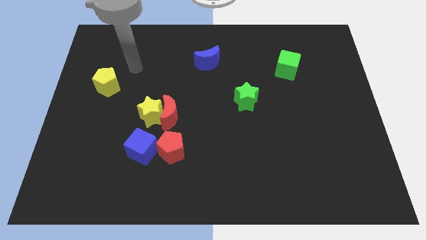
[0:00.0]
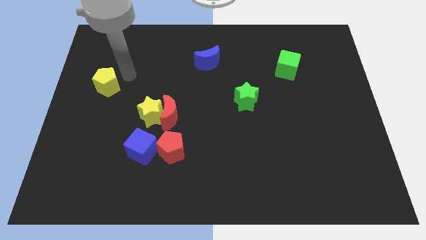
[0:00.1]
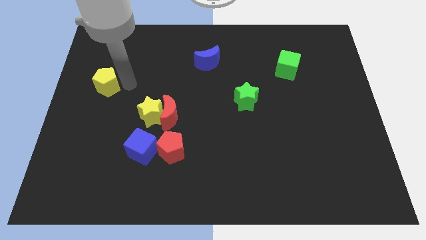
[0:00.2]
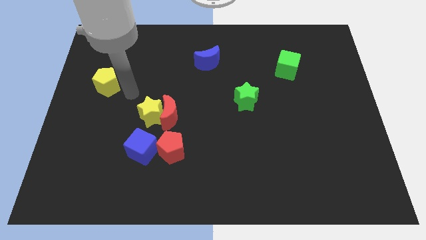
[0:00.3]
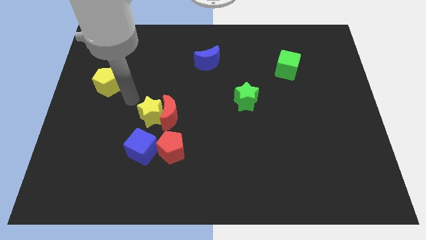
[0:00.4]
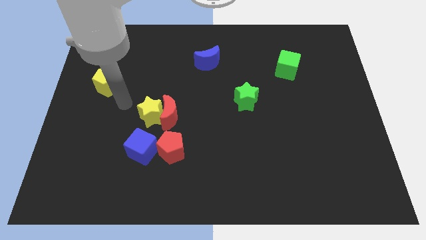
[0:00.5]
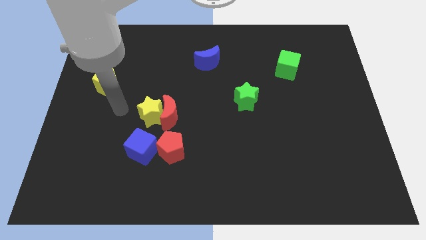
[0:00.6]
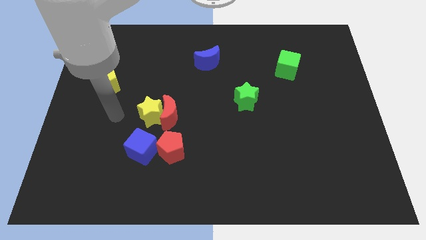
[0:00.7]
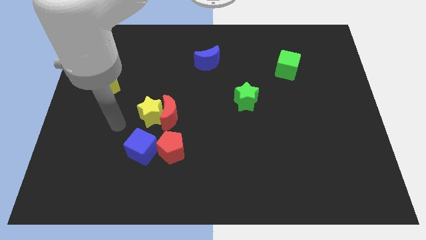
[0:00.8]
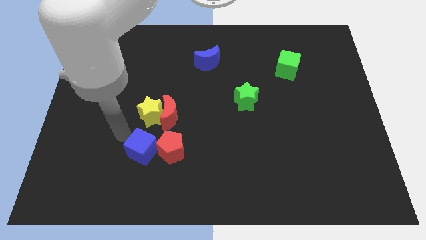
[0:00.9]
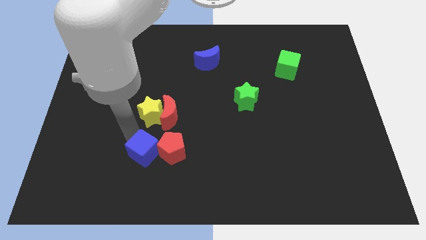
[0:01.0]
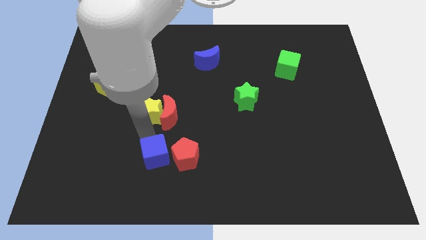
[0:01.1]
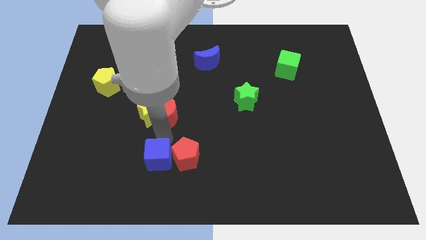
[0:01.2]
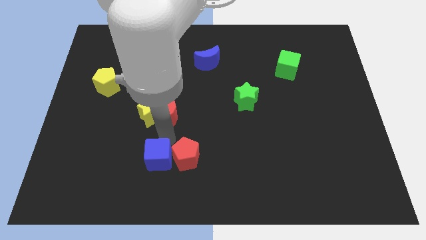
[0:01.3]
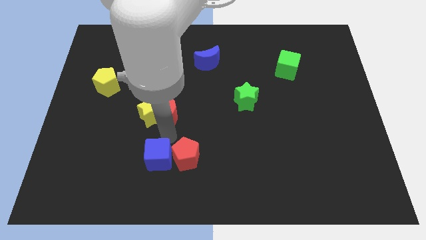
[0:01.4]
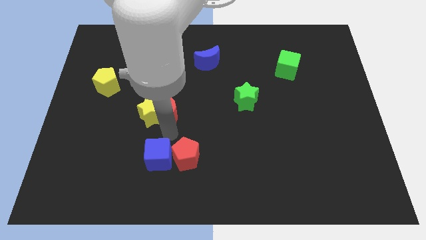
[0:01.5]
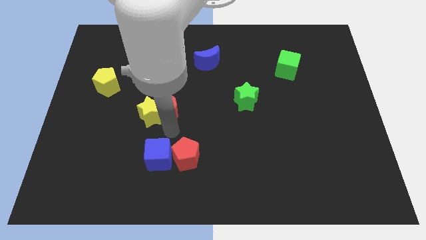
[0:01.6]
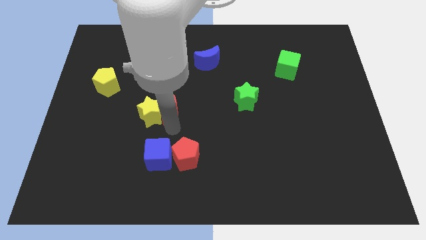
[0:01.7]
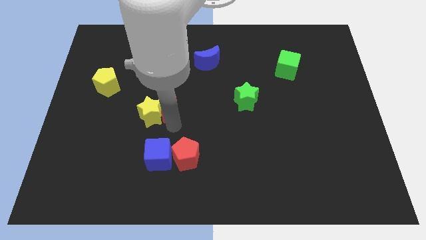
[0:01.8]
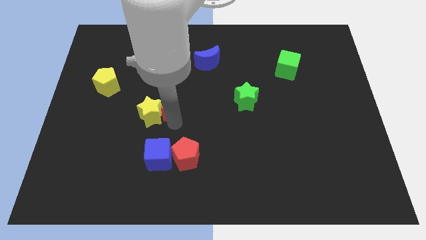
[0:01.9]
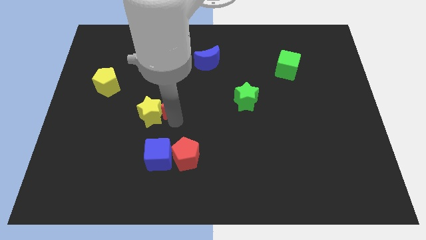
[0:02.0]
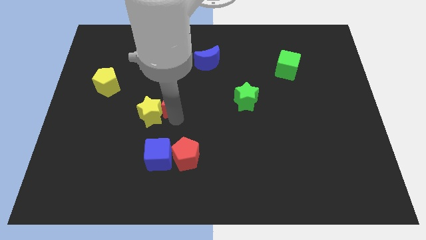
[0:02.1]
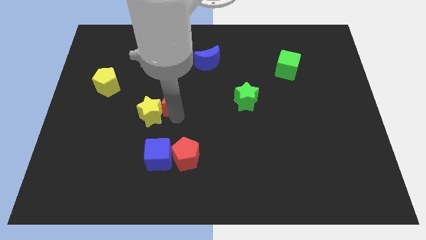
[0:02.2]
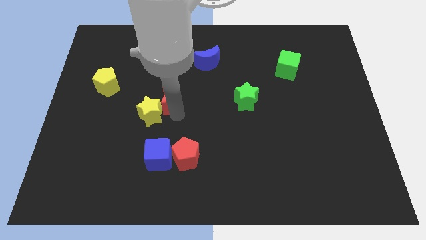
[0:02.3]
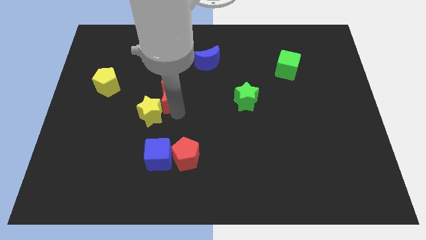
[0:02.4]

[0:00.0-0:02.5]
pull the red moon apart from the yellow star and red pentagon

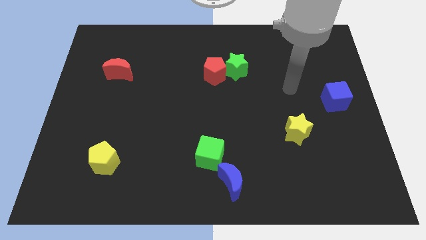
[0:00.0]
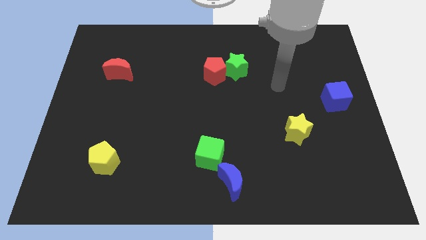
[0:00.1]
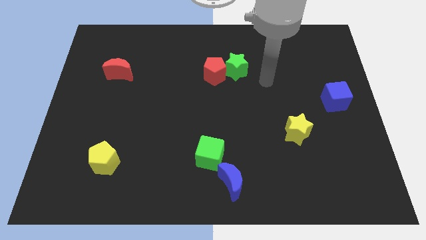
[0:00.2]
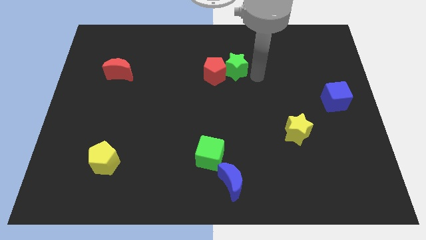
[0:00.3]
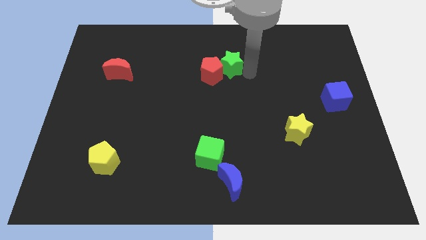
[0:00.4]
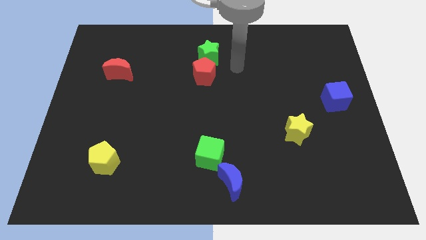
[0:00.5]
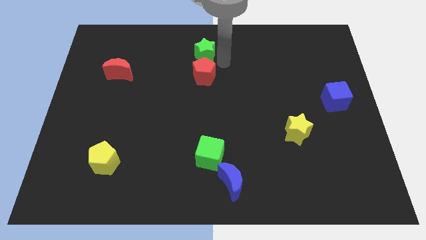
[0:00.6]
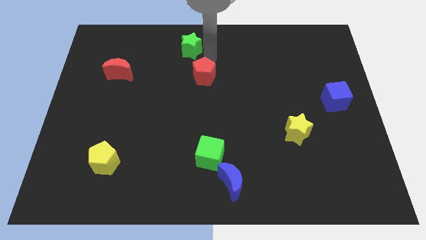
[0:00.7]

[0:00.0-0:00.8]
pull the red pentagon apart from the green star

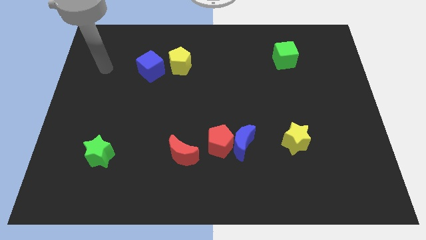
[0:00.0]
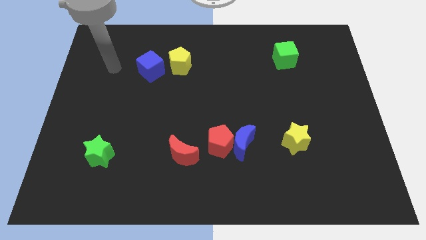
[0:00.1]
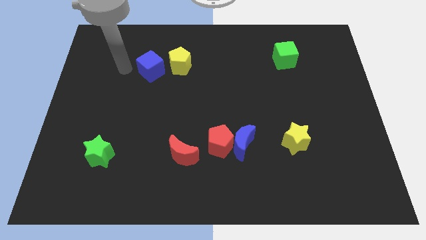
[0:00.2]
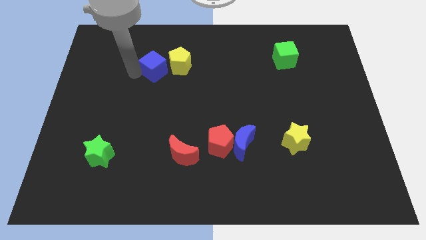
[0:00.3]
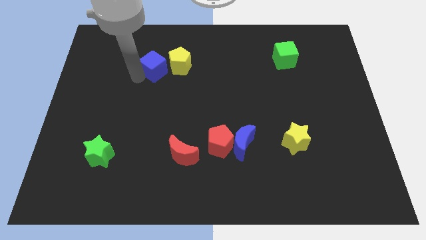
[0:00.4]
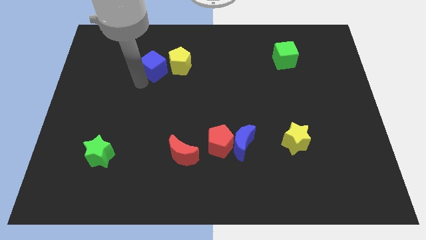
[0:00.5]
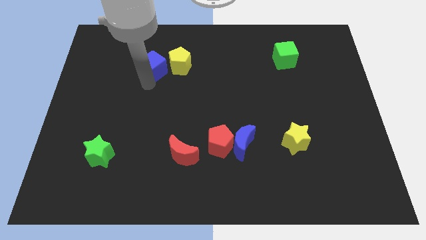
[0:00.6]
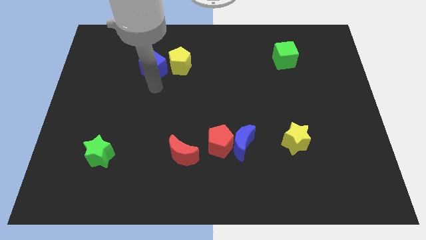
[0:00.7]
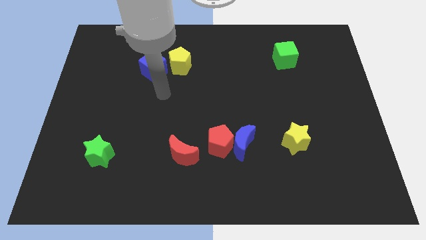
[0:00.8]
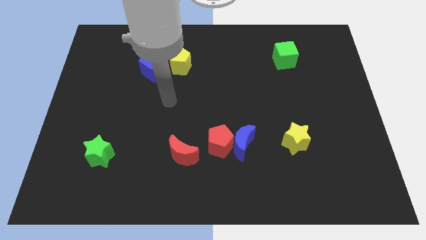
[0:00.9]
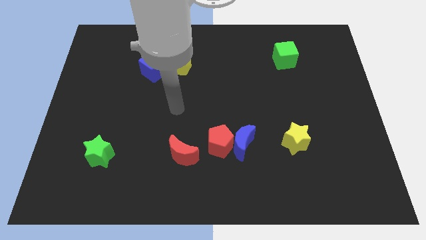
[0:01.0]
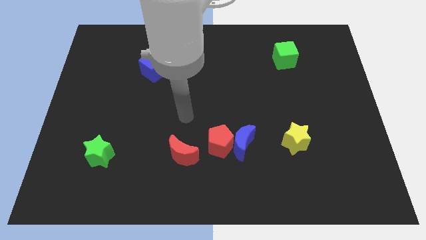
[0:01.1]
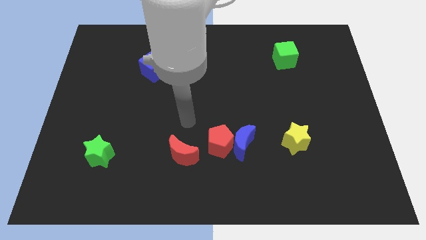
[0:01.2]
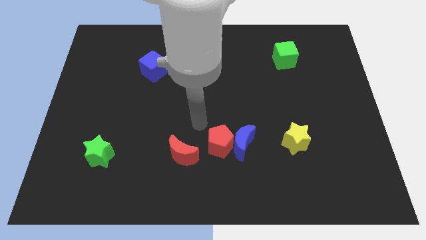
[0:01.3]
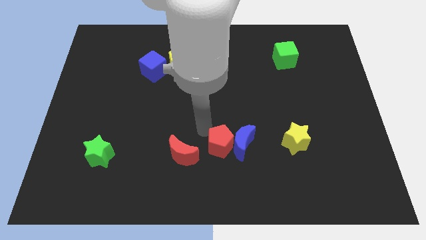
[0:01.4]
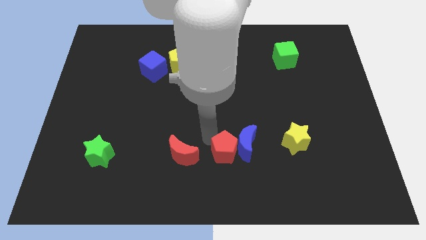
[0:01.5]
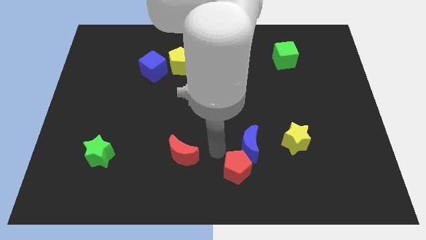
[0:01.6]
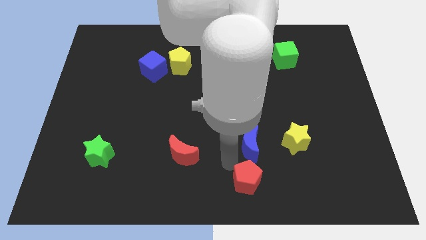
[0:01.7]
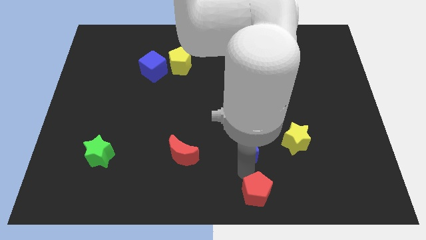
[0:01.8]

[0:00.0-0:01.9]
pull the blue moon apart from the red pentagon

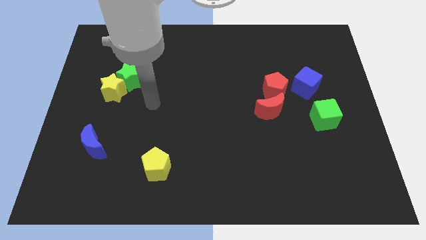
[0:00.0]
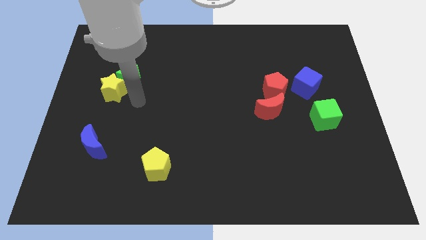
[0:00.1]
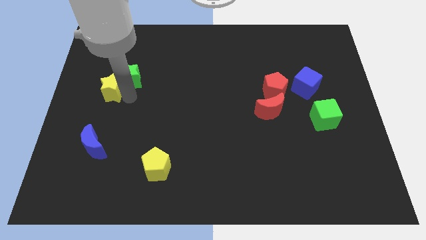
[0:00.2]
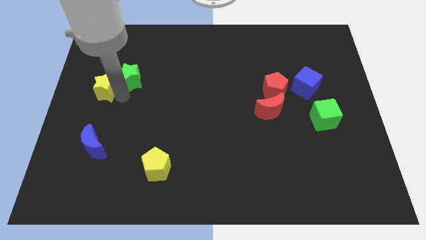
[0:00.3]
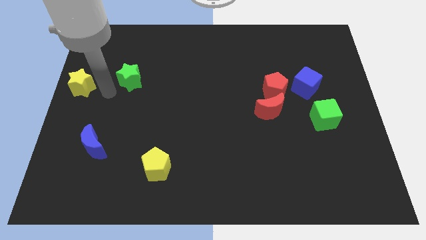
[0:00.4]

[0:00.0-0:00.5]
separate the green star from the yellow star

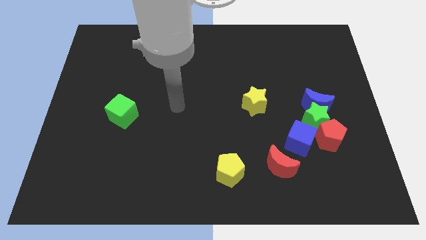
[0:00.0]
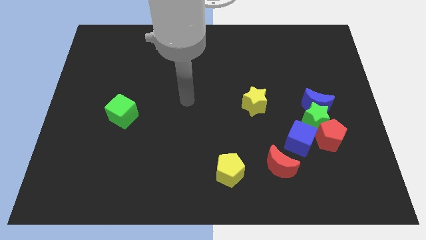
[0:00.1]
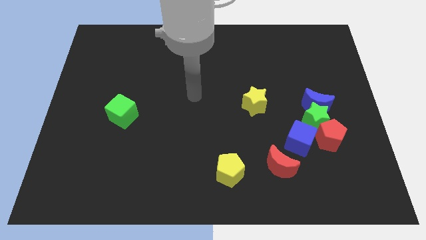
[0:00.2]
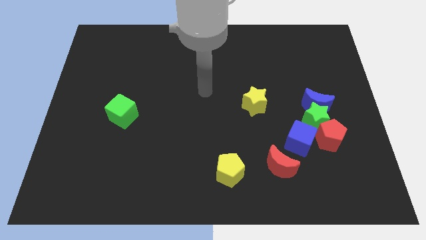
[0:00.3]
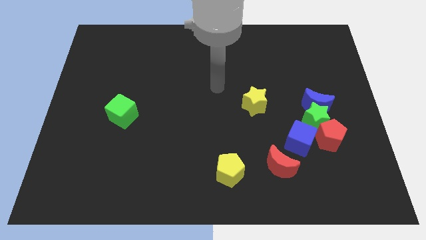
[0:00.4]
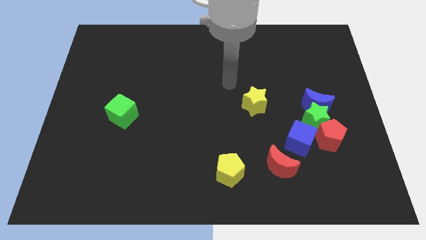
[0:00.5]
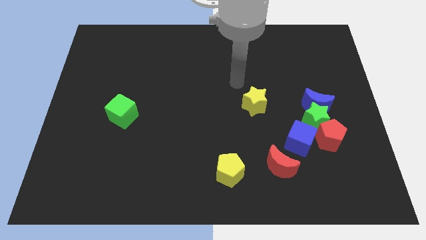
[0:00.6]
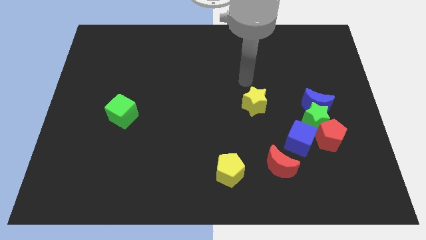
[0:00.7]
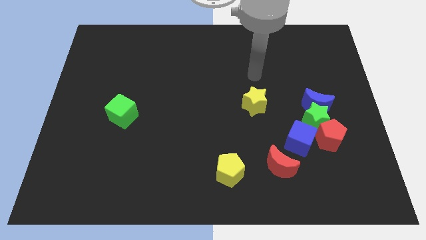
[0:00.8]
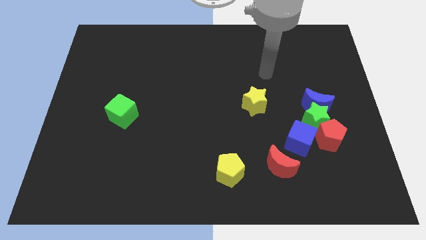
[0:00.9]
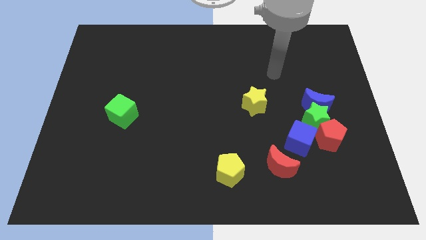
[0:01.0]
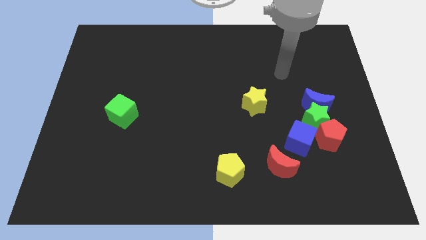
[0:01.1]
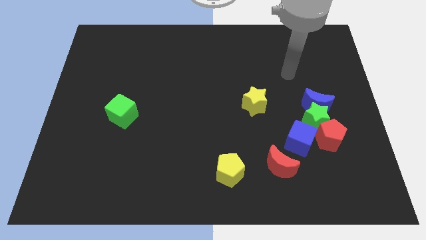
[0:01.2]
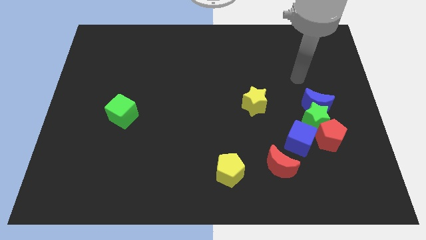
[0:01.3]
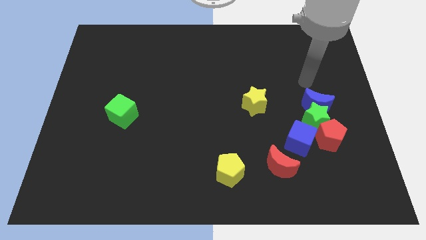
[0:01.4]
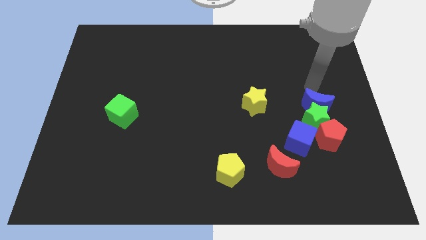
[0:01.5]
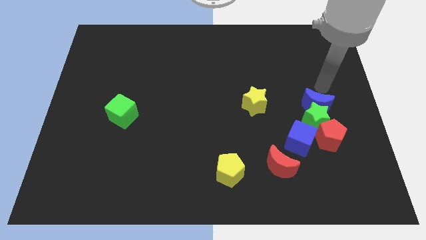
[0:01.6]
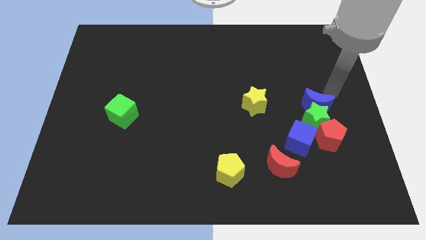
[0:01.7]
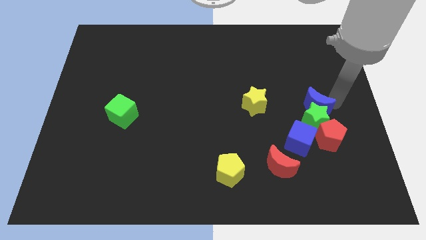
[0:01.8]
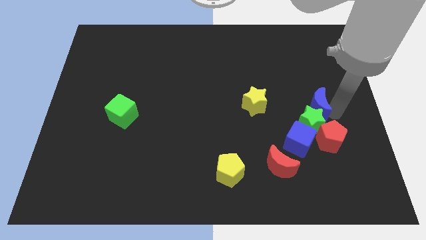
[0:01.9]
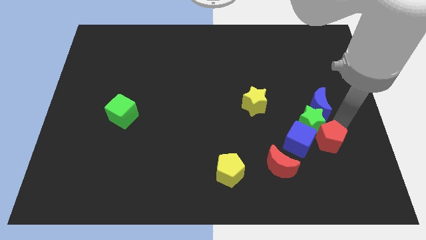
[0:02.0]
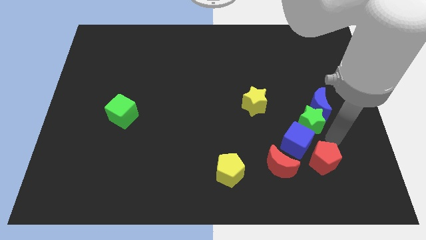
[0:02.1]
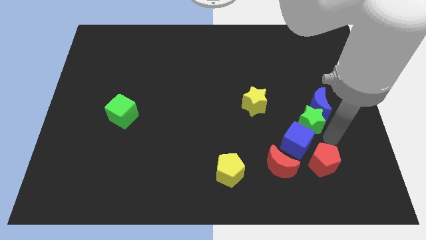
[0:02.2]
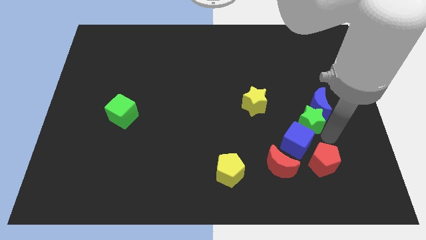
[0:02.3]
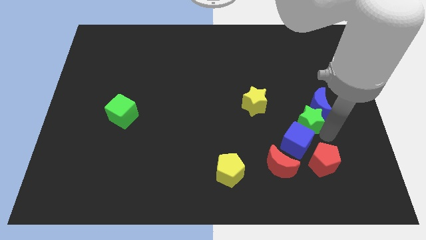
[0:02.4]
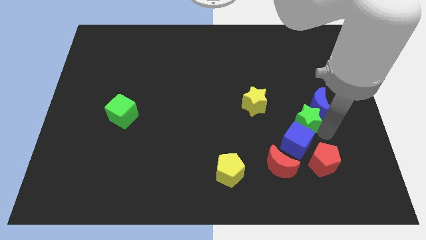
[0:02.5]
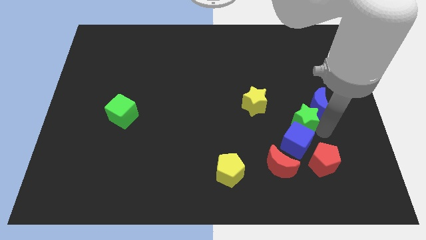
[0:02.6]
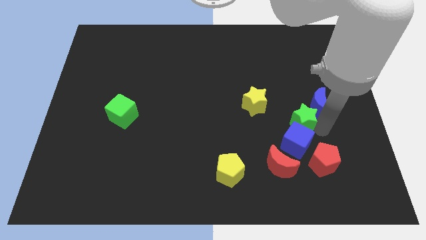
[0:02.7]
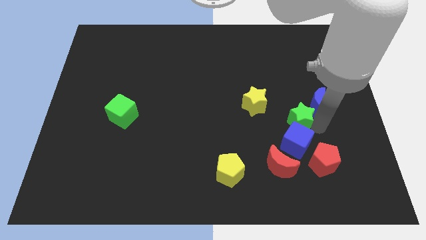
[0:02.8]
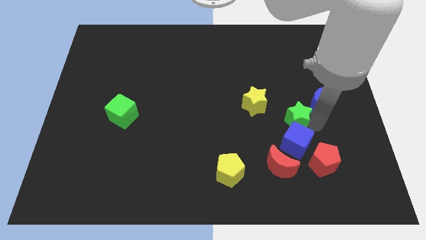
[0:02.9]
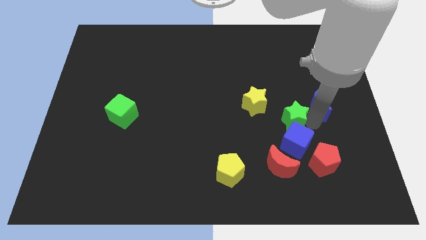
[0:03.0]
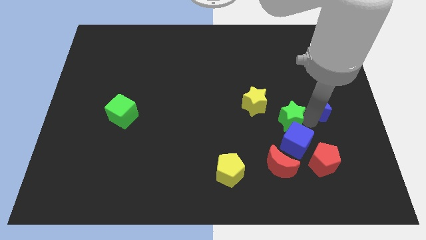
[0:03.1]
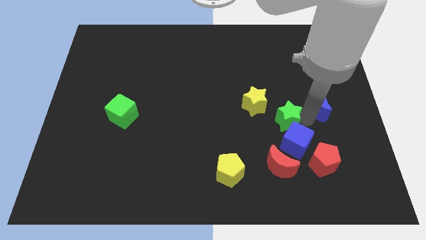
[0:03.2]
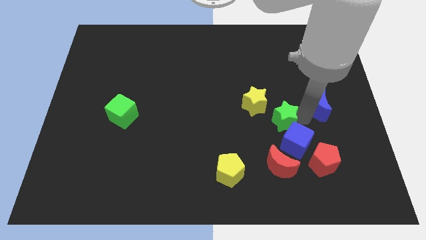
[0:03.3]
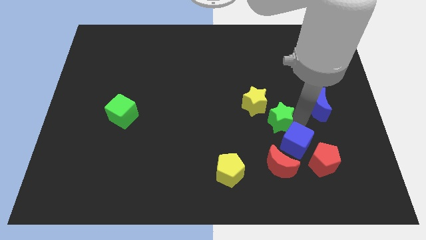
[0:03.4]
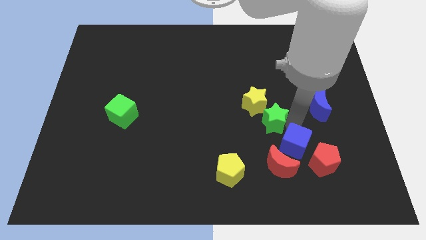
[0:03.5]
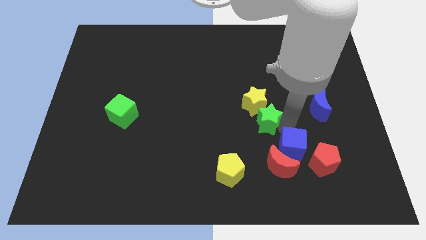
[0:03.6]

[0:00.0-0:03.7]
separate the green star from the blue moon, red pentagon, and blue cube

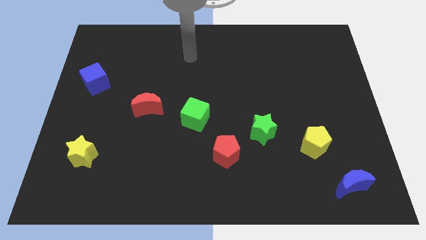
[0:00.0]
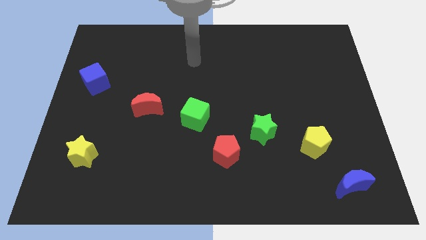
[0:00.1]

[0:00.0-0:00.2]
move the red pentagon away from the green star
